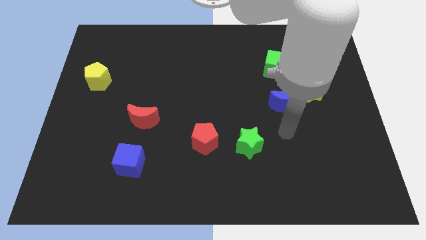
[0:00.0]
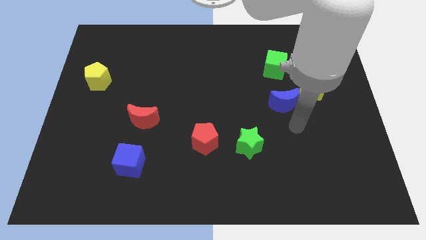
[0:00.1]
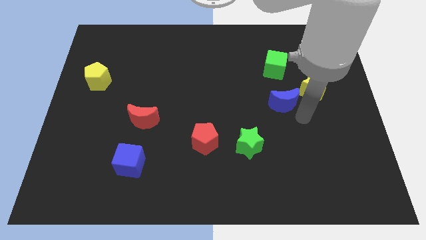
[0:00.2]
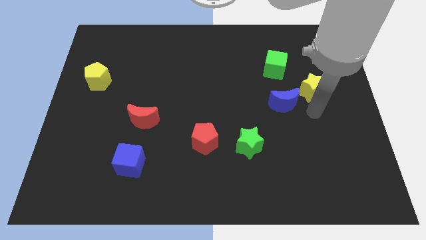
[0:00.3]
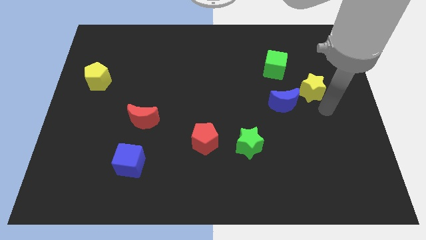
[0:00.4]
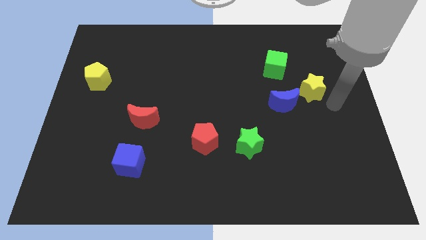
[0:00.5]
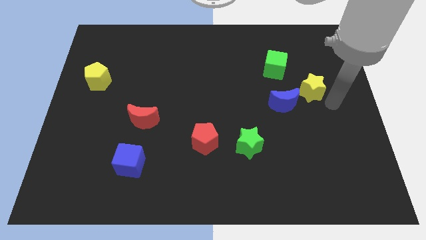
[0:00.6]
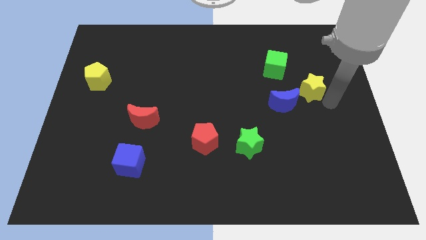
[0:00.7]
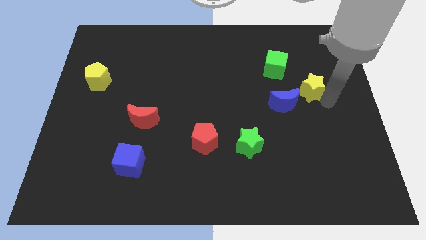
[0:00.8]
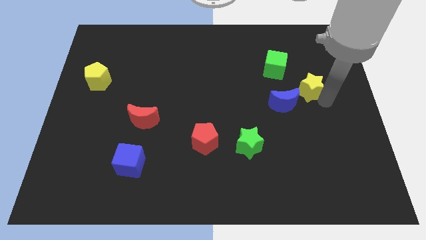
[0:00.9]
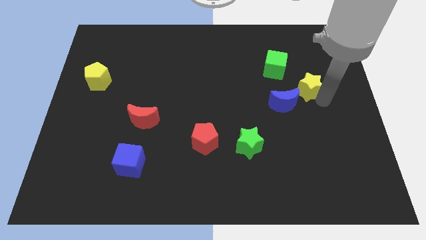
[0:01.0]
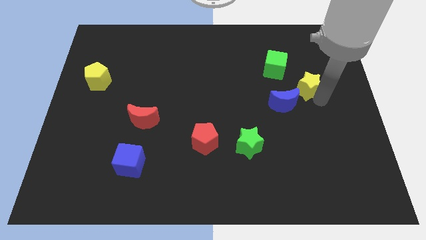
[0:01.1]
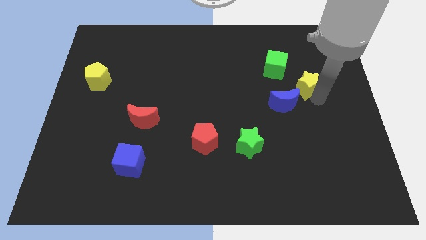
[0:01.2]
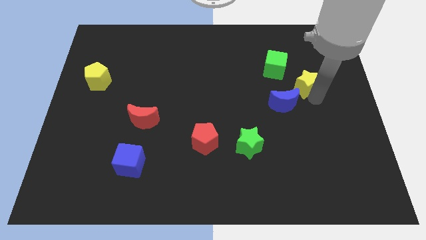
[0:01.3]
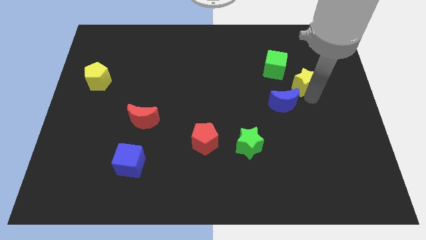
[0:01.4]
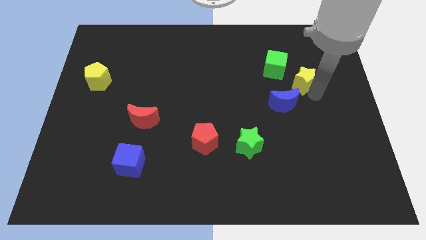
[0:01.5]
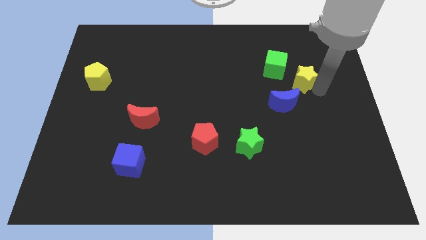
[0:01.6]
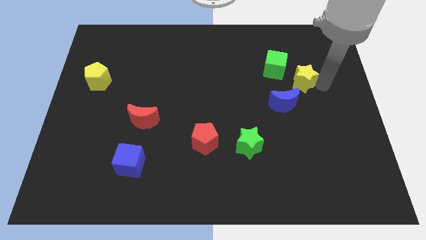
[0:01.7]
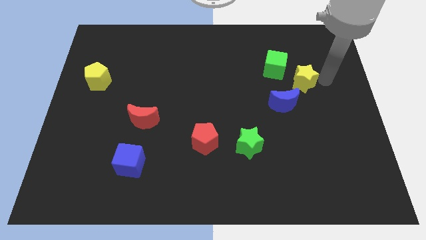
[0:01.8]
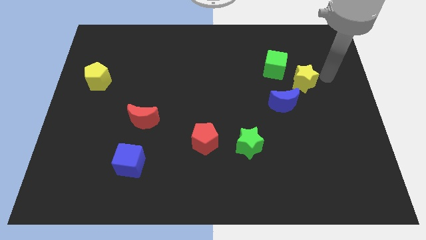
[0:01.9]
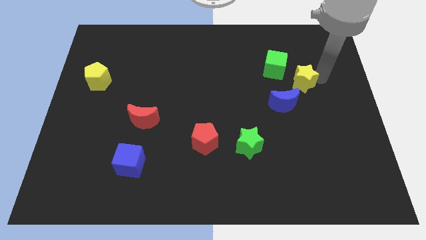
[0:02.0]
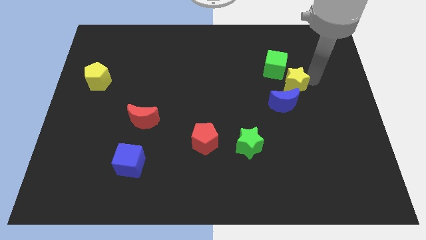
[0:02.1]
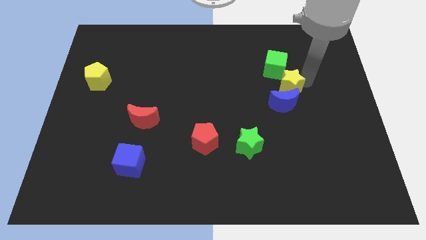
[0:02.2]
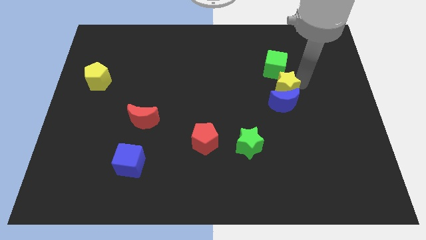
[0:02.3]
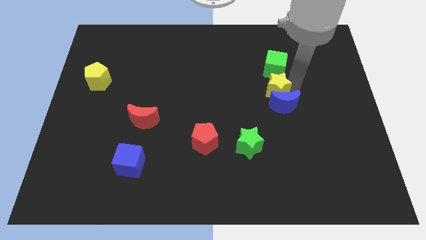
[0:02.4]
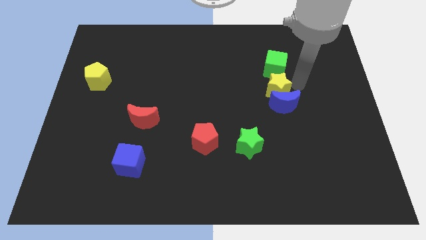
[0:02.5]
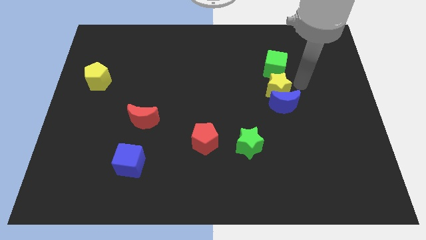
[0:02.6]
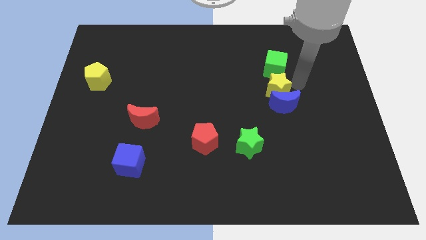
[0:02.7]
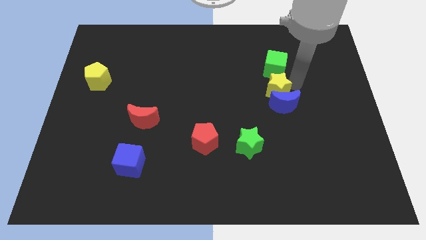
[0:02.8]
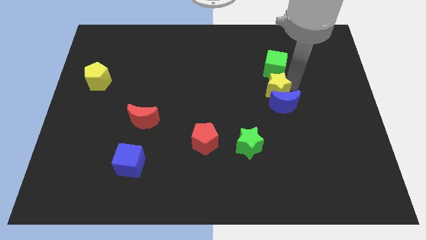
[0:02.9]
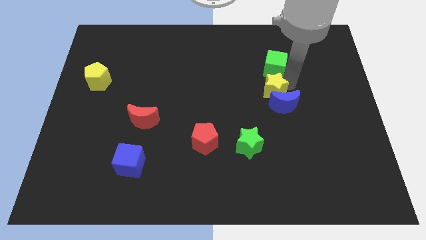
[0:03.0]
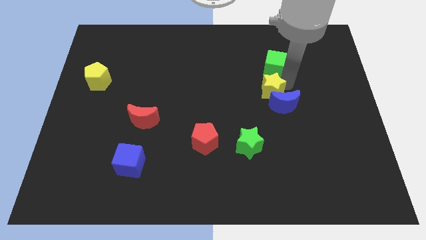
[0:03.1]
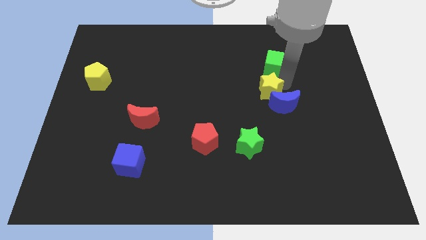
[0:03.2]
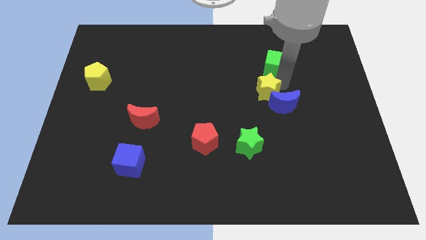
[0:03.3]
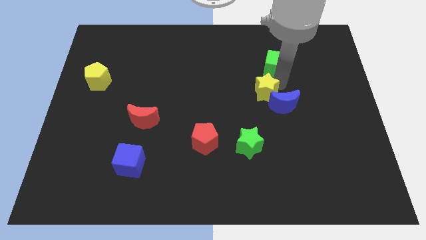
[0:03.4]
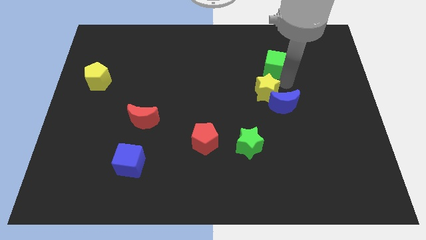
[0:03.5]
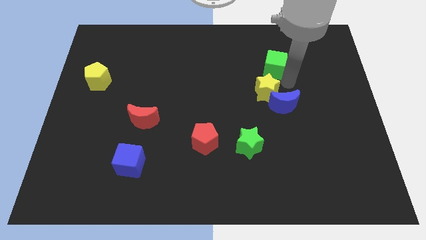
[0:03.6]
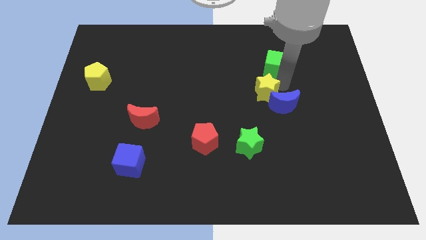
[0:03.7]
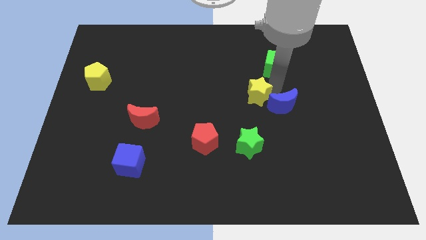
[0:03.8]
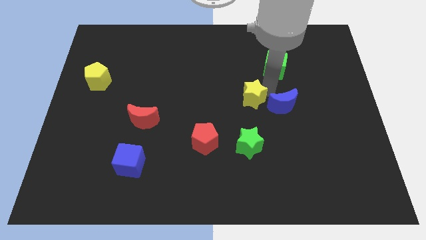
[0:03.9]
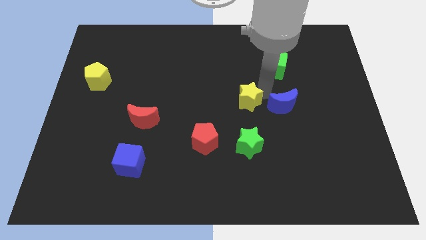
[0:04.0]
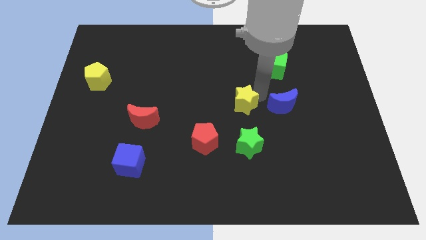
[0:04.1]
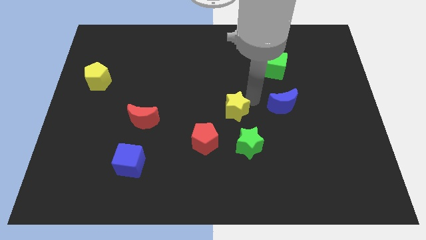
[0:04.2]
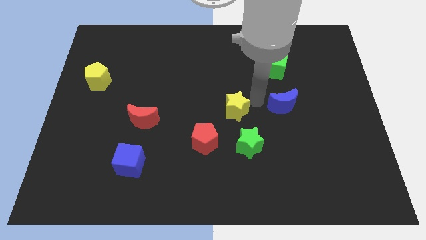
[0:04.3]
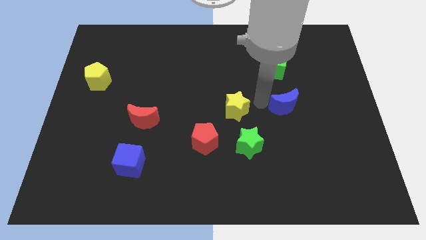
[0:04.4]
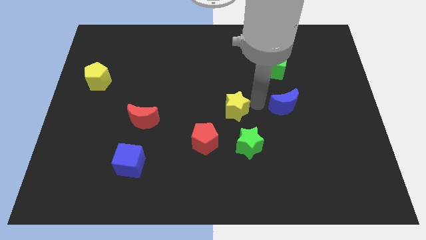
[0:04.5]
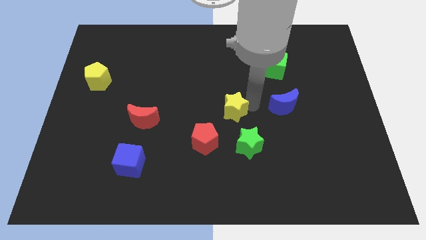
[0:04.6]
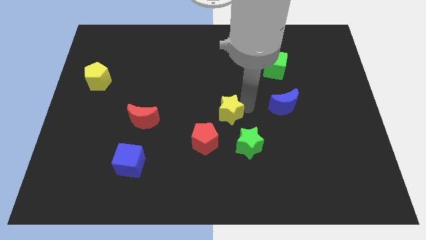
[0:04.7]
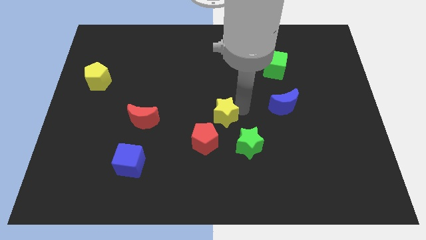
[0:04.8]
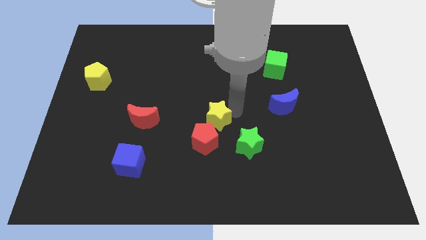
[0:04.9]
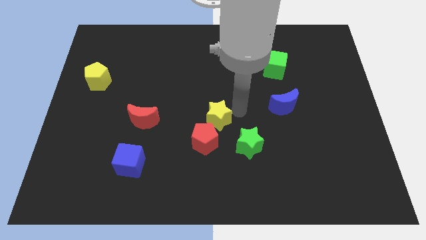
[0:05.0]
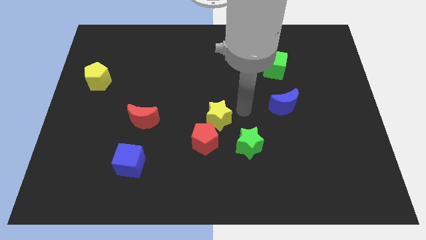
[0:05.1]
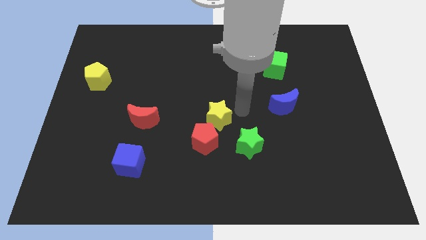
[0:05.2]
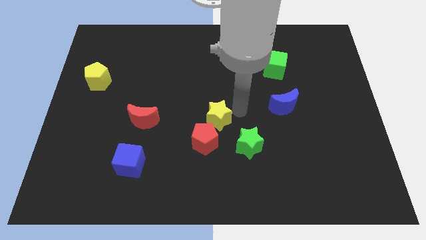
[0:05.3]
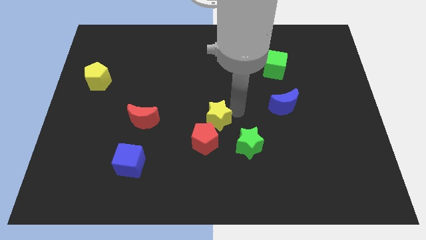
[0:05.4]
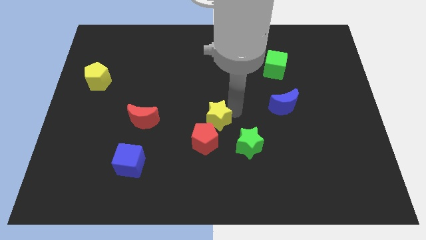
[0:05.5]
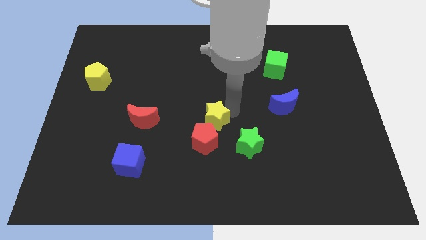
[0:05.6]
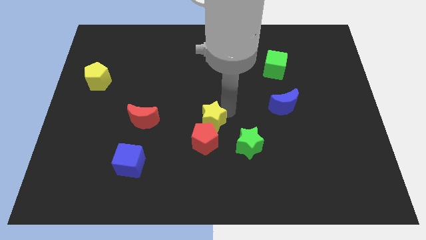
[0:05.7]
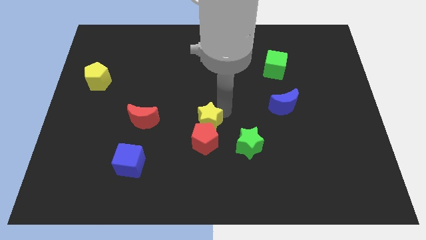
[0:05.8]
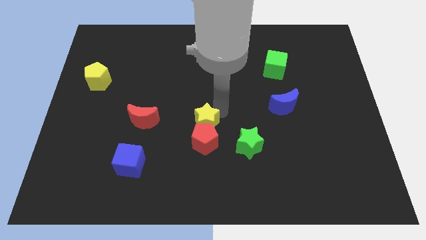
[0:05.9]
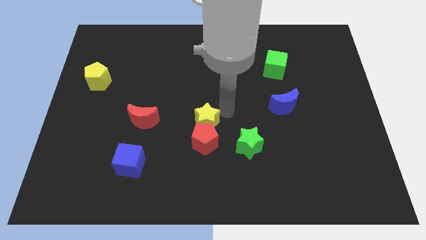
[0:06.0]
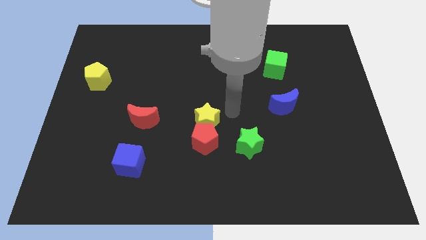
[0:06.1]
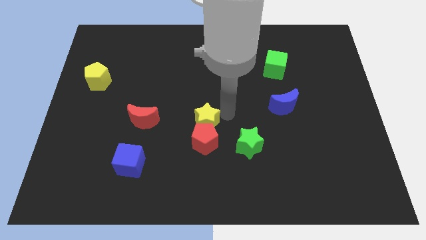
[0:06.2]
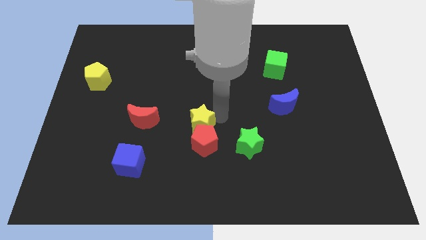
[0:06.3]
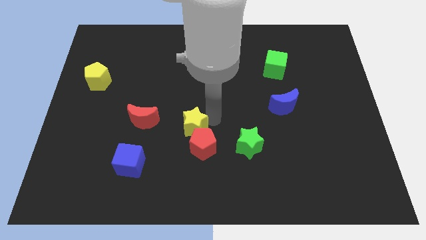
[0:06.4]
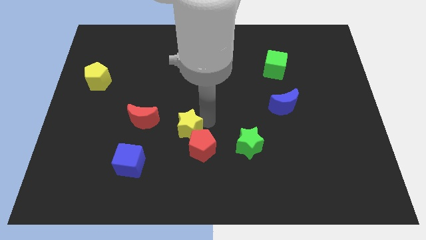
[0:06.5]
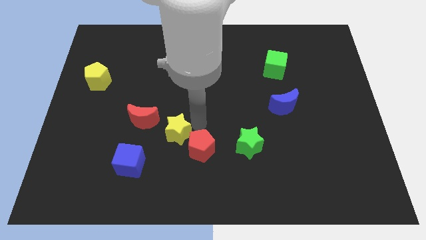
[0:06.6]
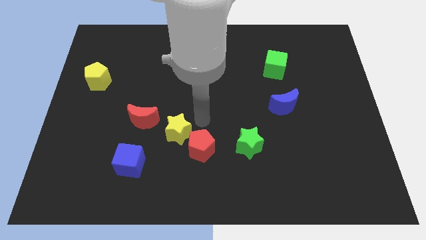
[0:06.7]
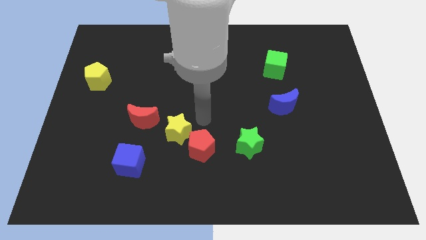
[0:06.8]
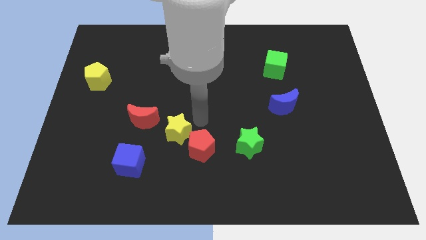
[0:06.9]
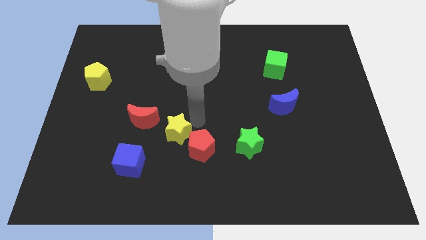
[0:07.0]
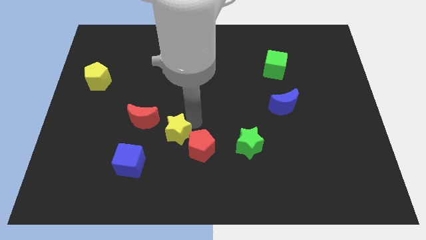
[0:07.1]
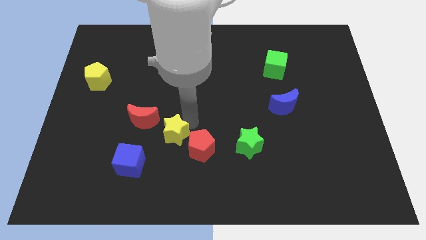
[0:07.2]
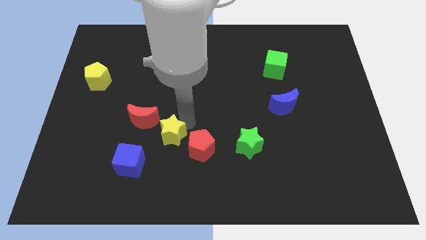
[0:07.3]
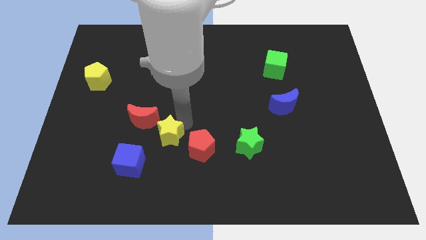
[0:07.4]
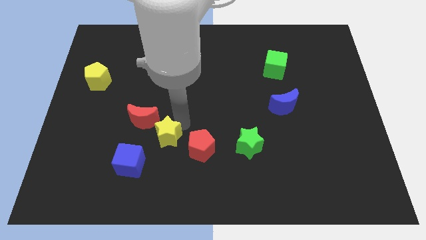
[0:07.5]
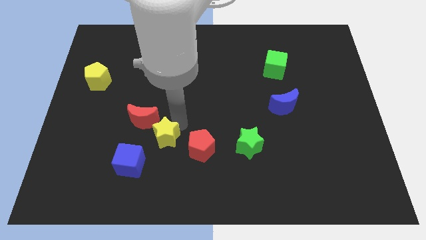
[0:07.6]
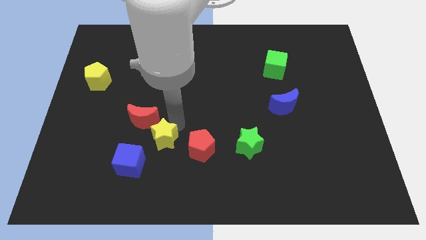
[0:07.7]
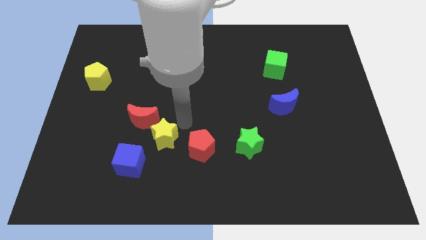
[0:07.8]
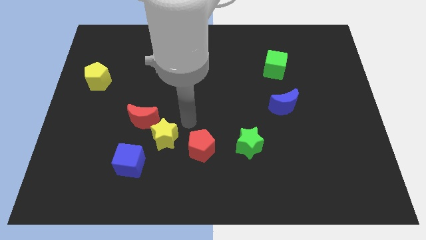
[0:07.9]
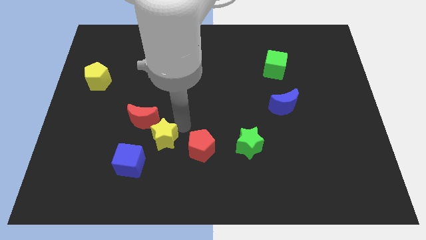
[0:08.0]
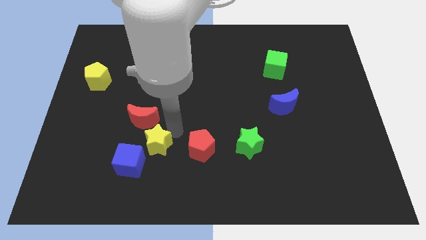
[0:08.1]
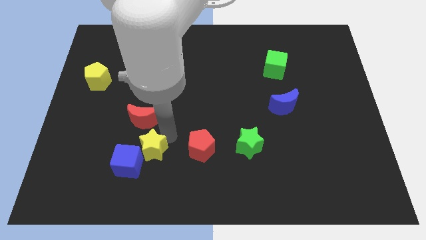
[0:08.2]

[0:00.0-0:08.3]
move the yellow star close to the blue cube
